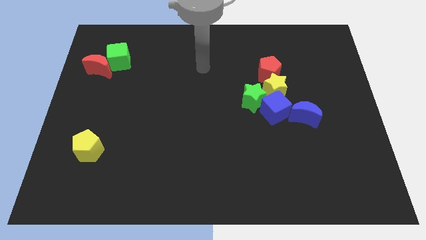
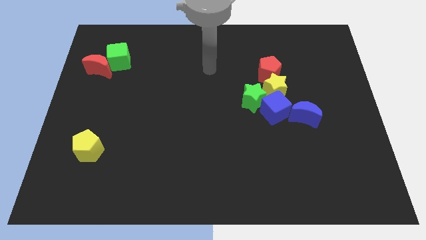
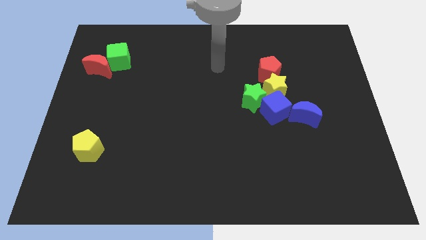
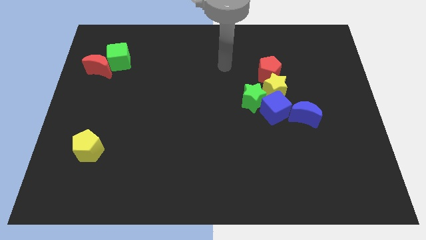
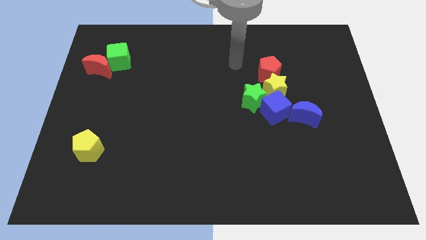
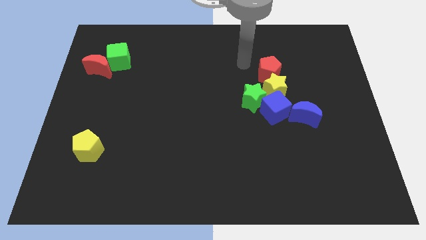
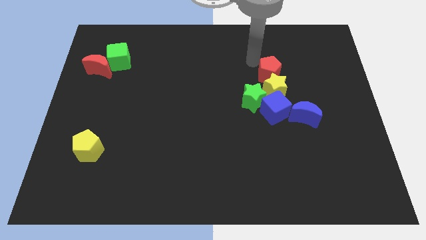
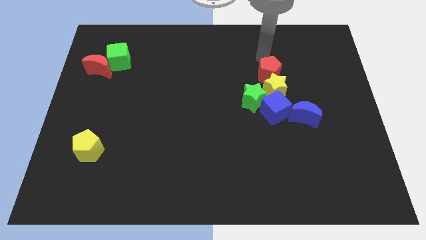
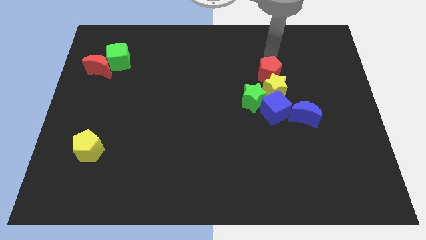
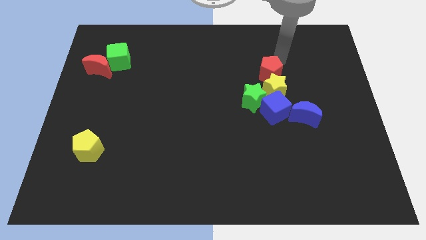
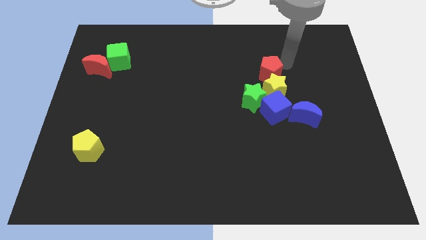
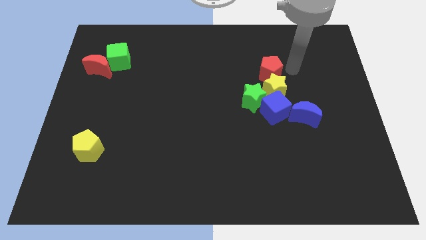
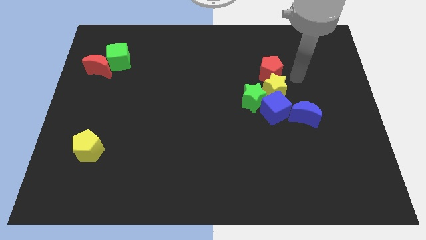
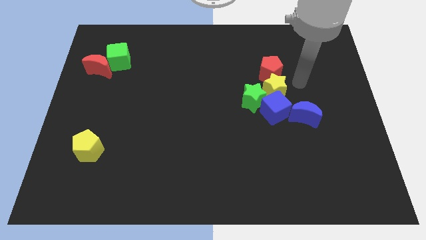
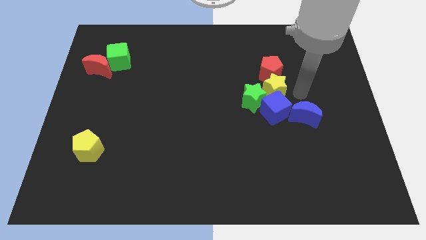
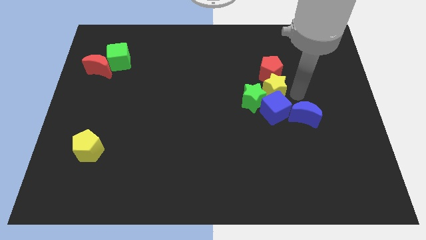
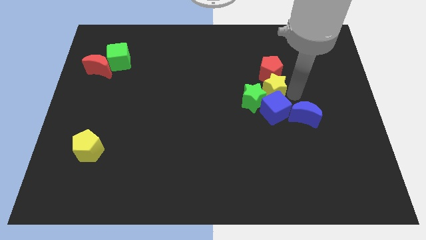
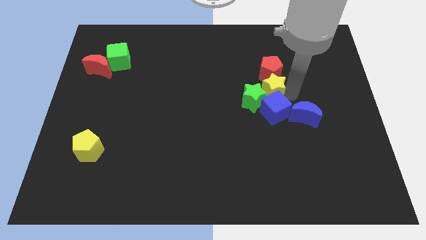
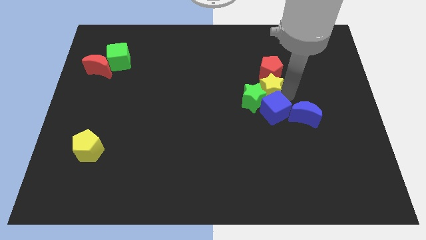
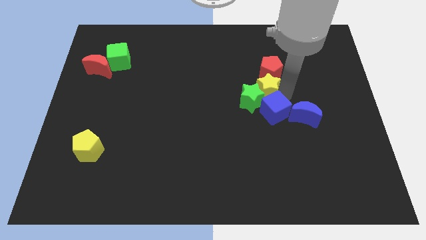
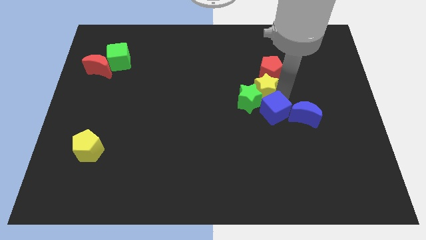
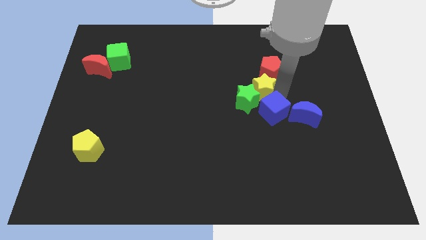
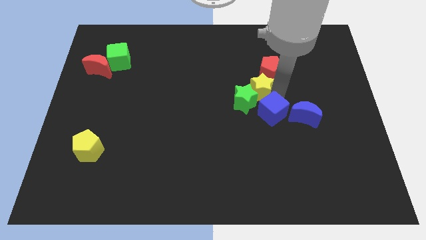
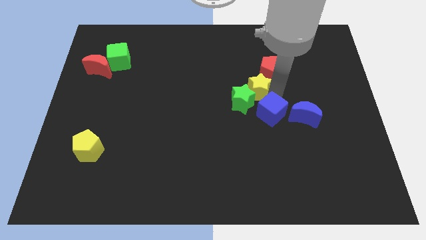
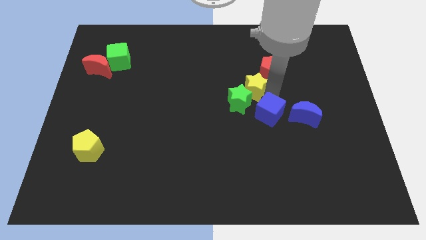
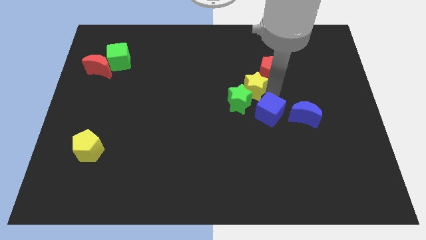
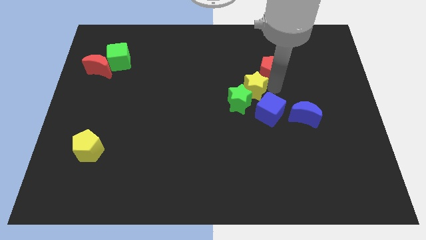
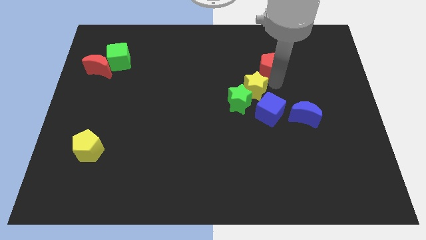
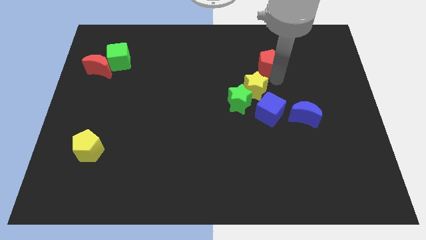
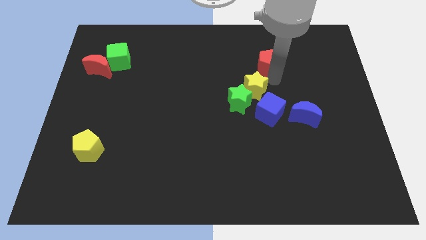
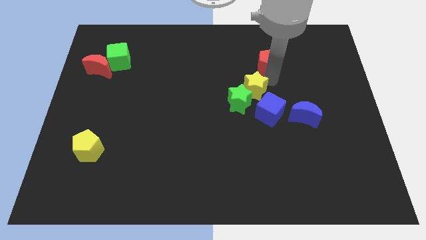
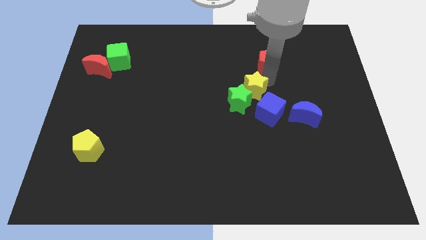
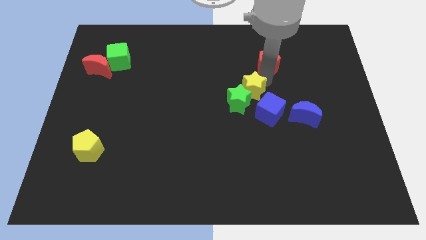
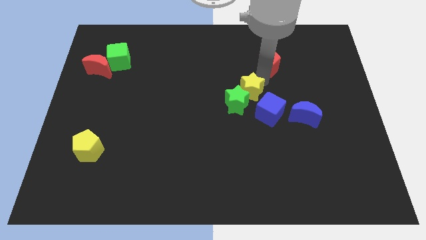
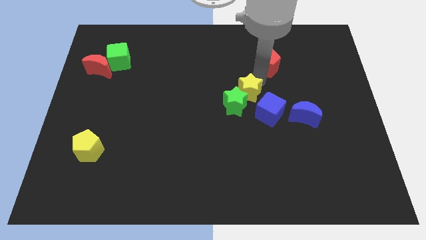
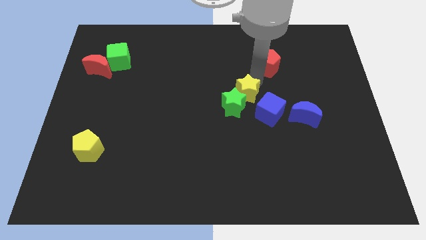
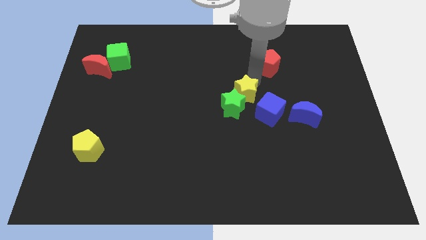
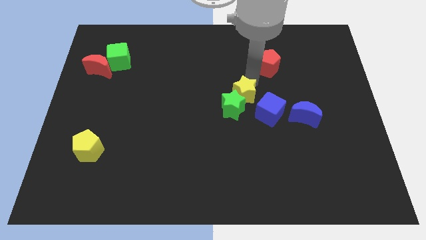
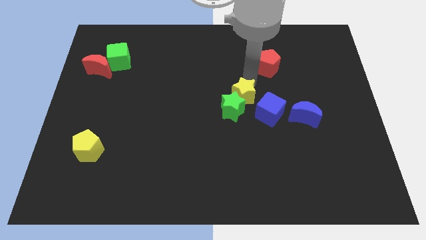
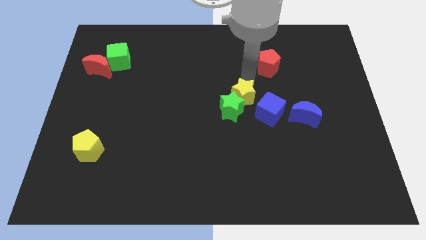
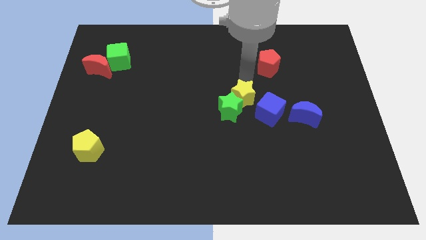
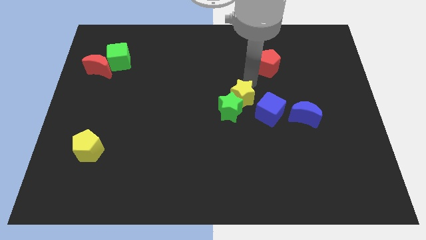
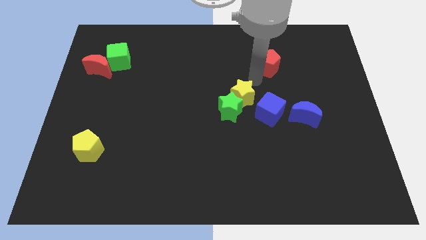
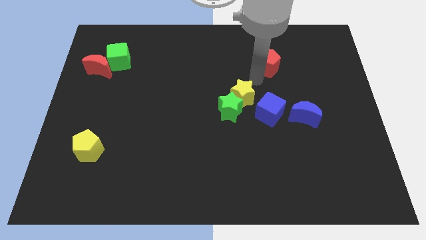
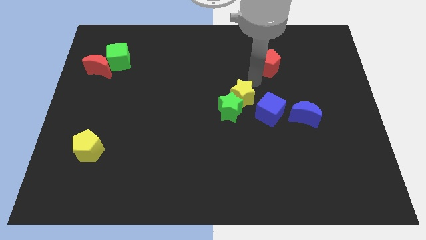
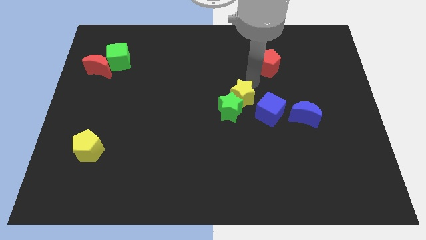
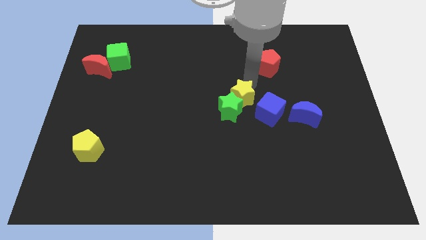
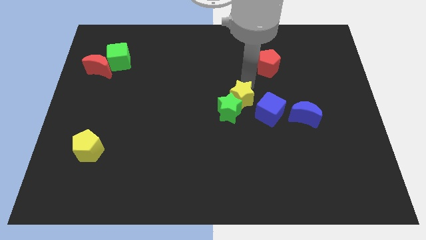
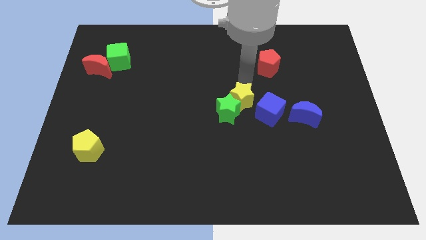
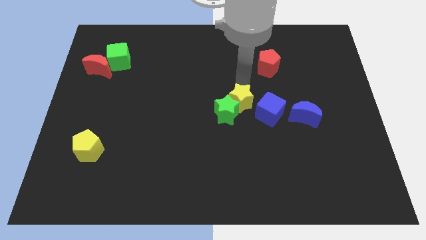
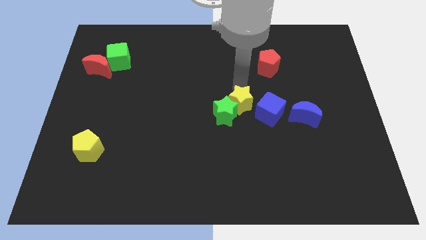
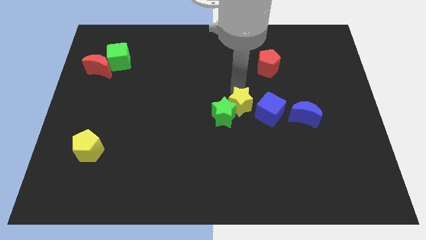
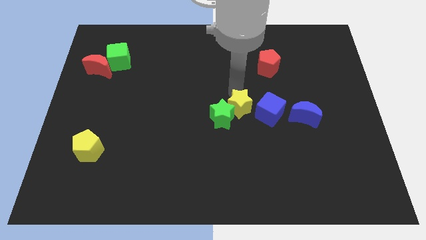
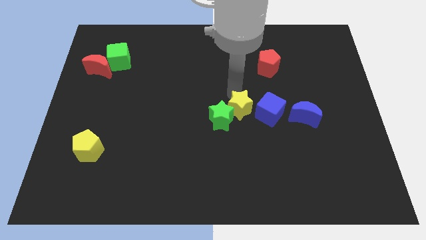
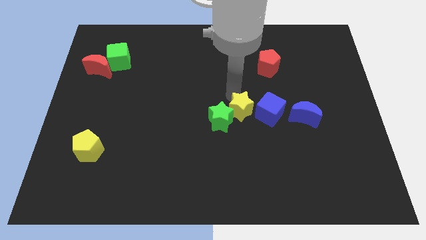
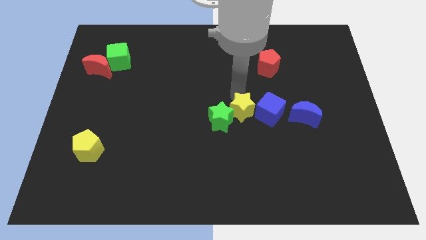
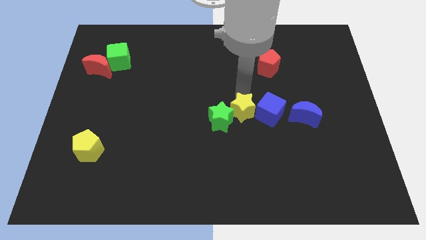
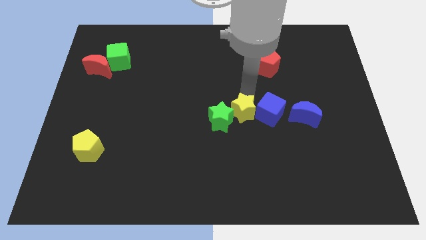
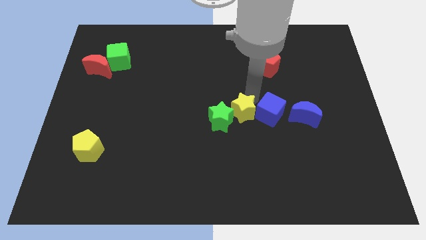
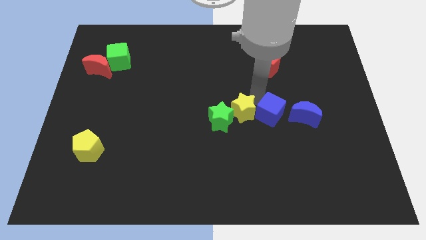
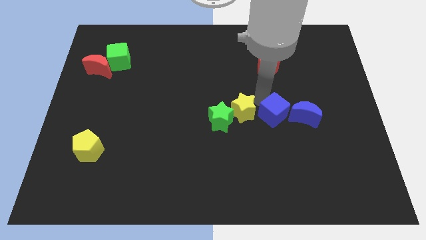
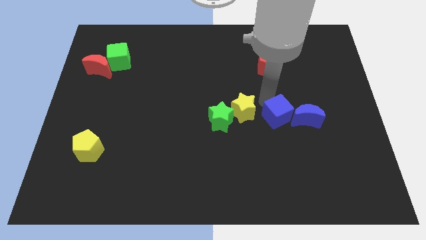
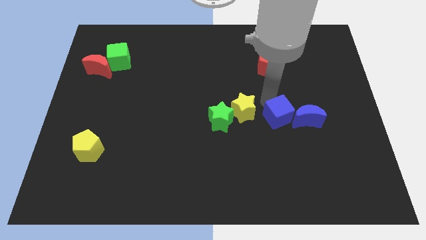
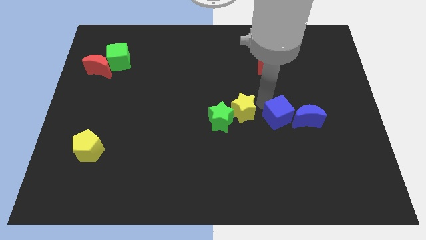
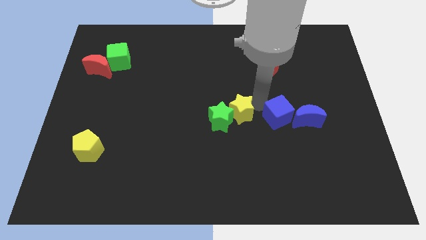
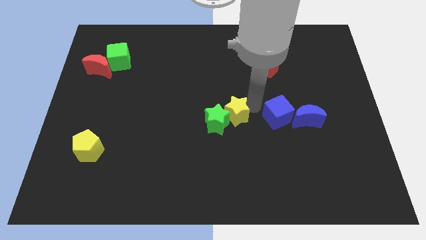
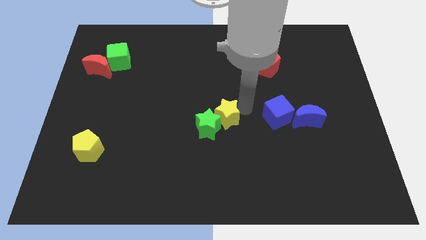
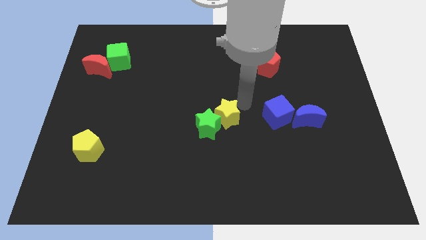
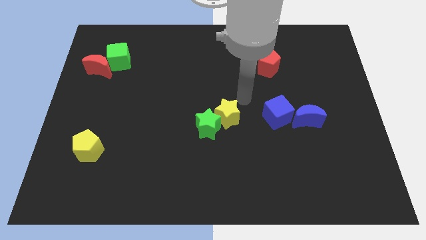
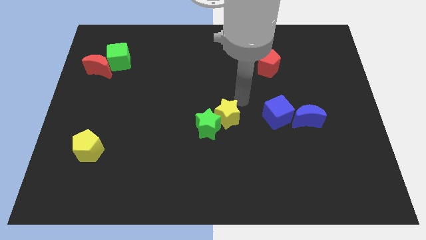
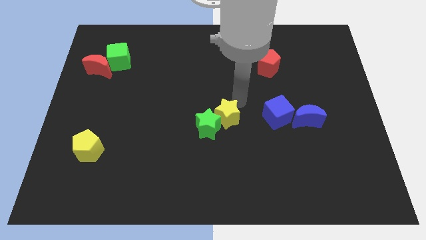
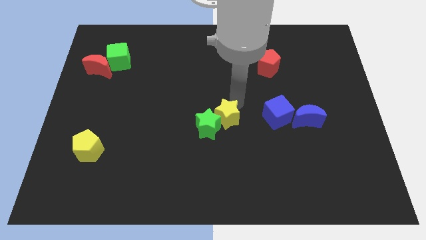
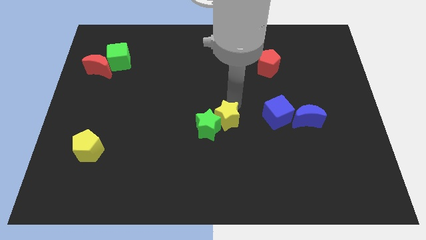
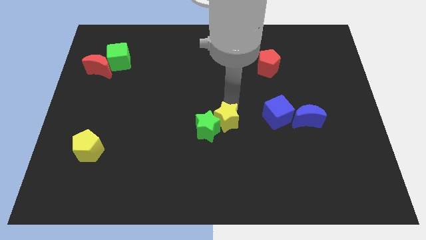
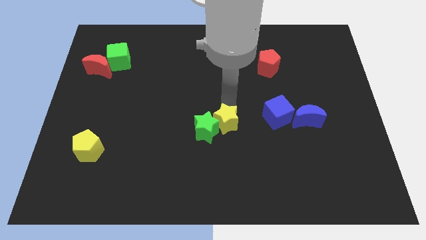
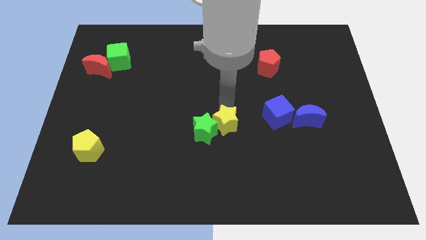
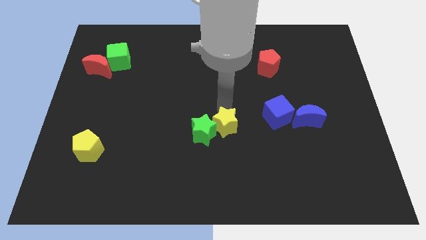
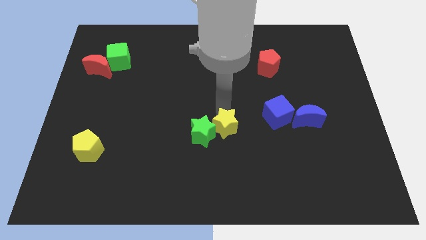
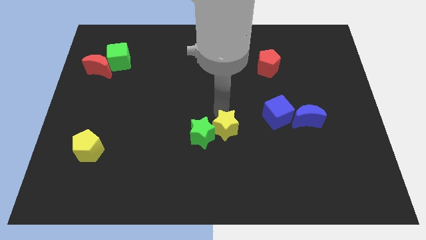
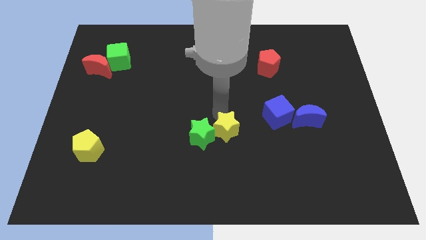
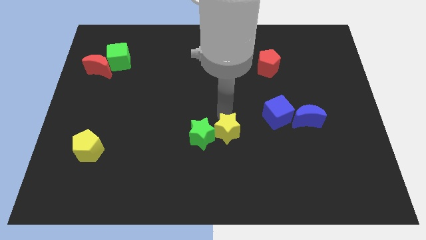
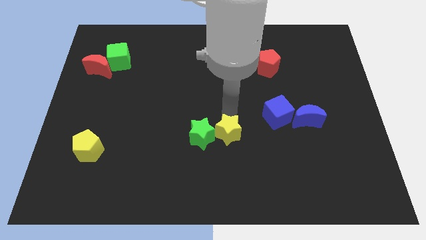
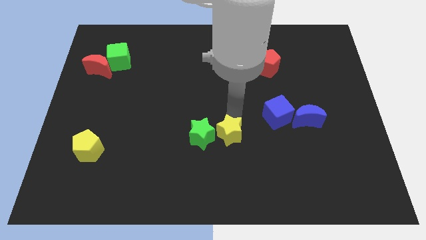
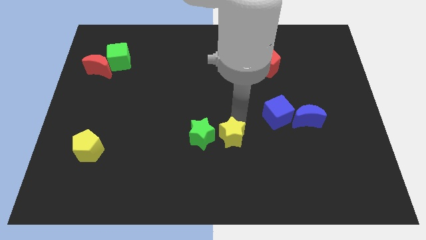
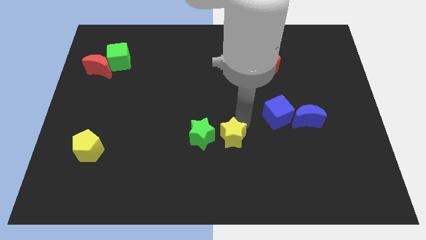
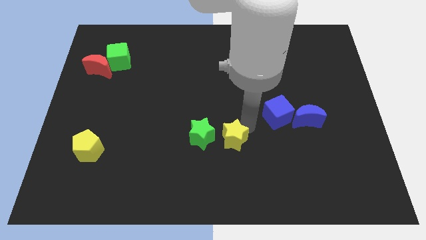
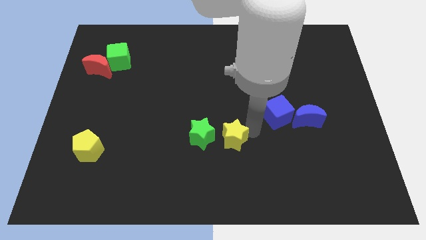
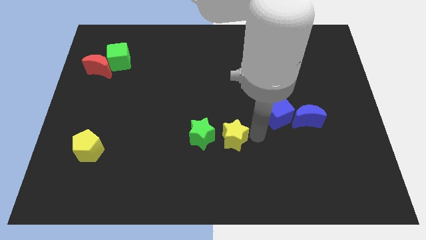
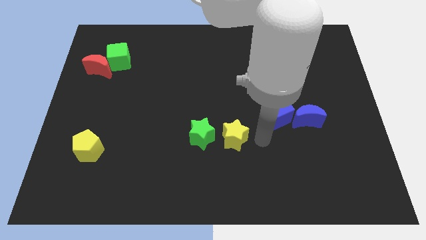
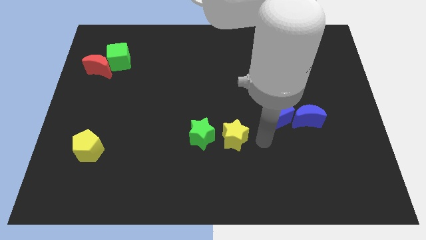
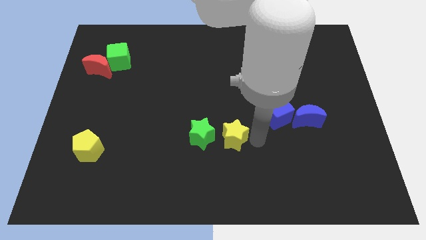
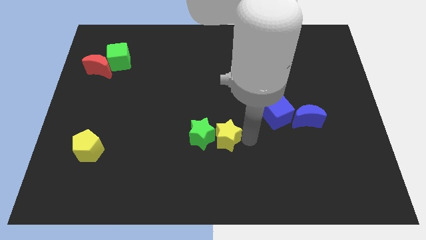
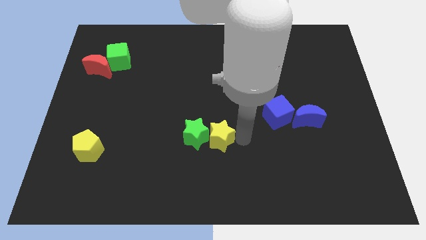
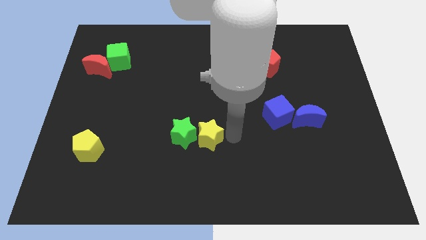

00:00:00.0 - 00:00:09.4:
move the yellow star diagonally down and left
